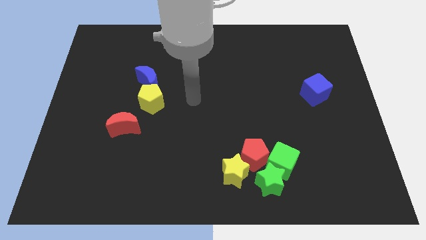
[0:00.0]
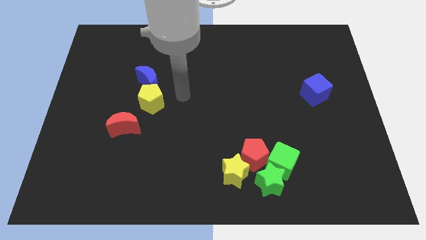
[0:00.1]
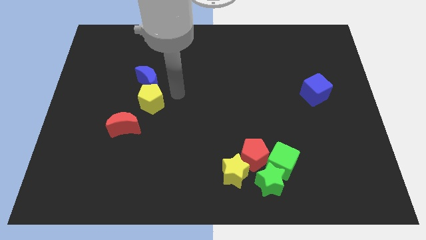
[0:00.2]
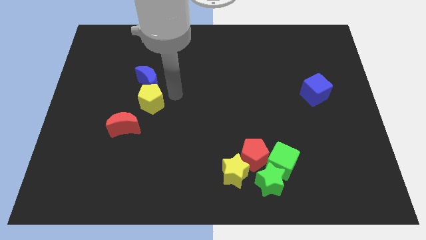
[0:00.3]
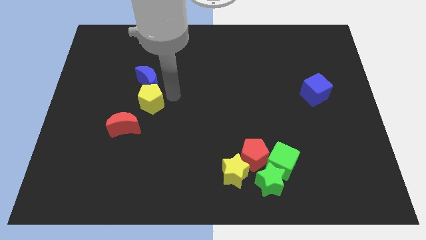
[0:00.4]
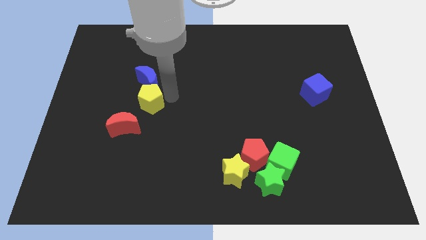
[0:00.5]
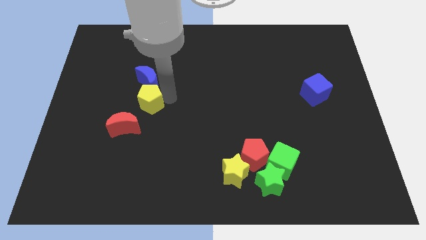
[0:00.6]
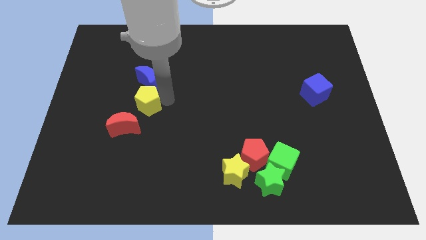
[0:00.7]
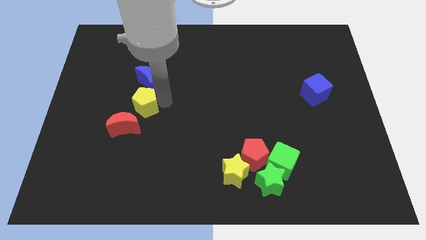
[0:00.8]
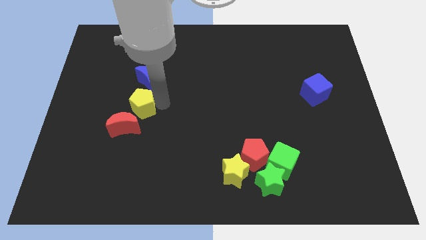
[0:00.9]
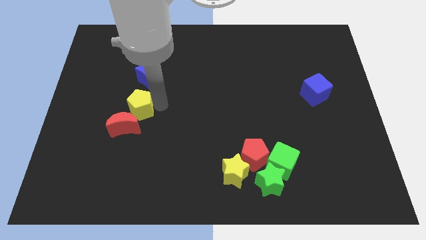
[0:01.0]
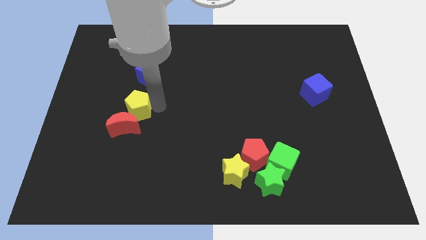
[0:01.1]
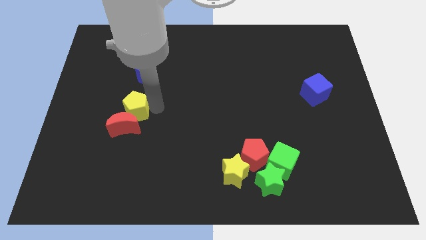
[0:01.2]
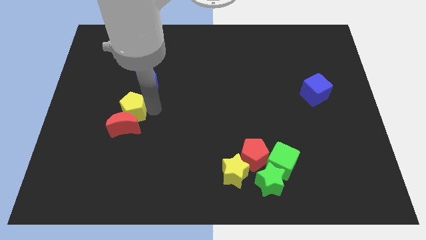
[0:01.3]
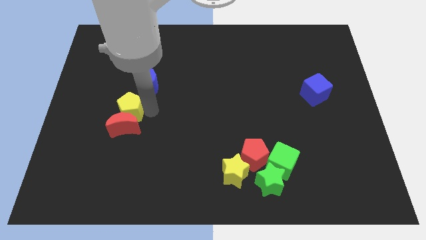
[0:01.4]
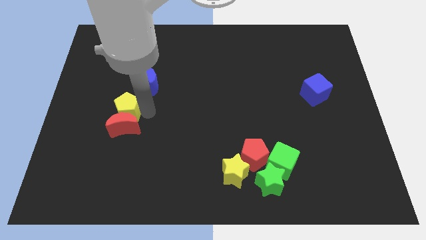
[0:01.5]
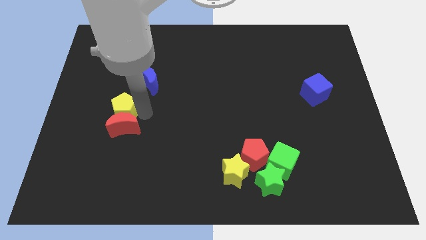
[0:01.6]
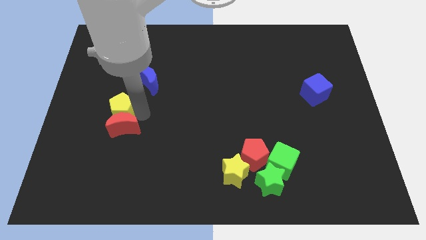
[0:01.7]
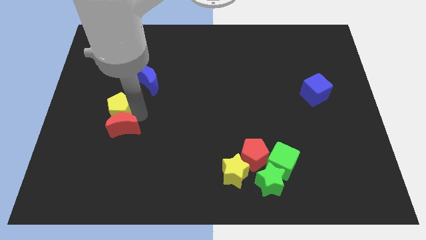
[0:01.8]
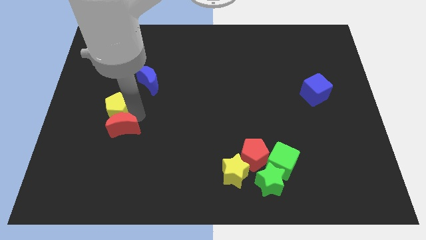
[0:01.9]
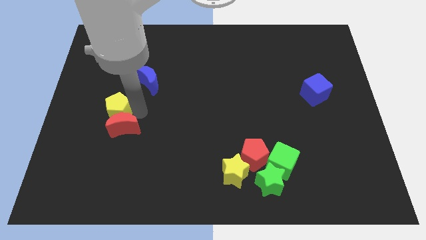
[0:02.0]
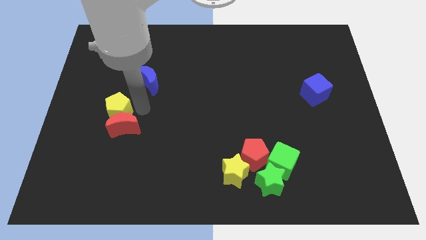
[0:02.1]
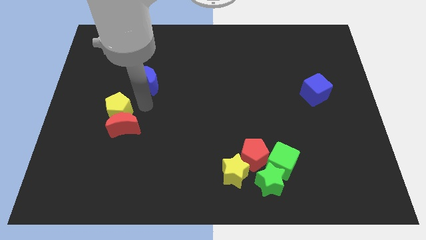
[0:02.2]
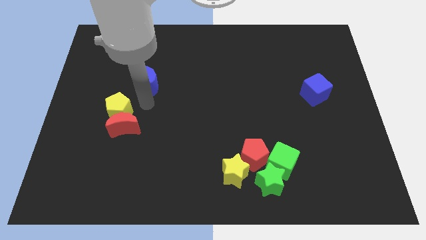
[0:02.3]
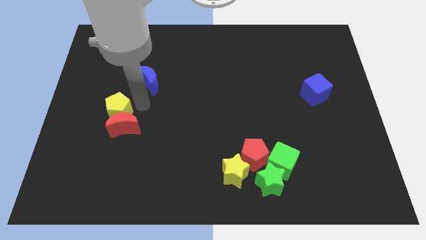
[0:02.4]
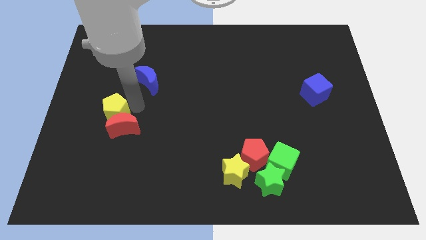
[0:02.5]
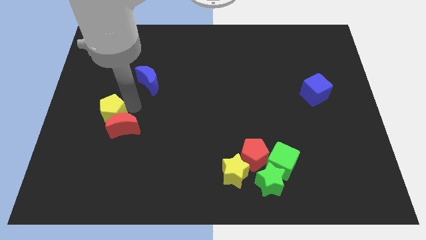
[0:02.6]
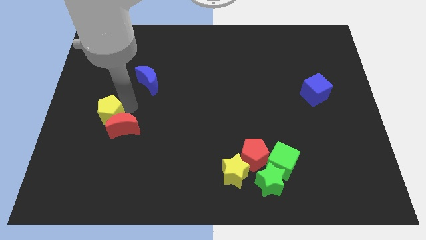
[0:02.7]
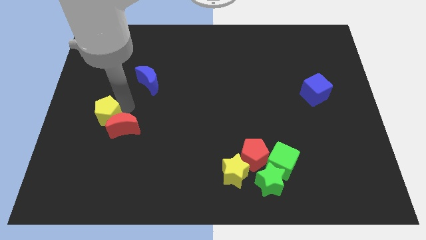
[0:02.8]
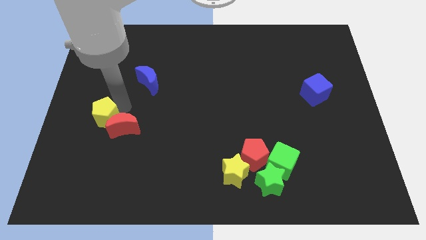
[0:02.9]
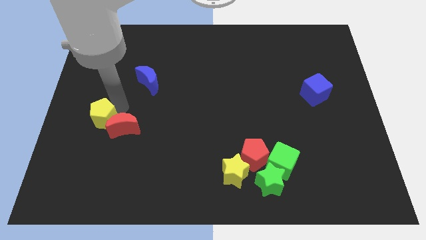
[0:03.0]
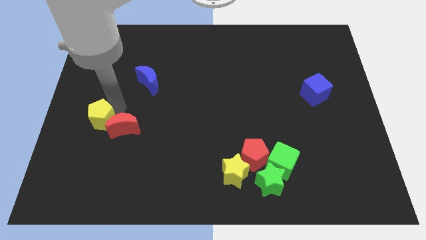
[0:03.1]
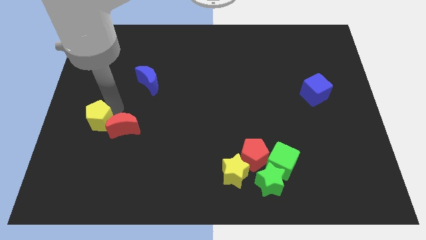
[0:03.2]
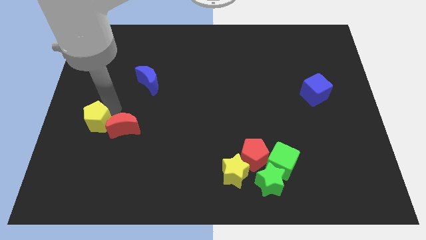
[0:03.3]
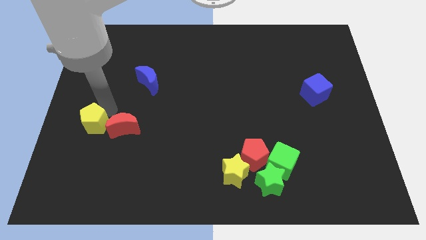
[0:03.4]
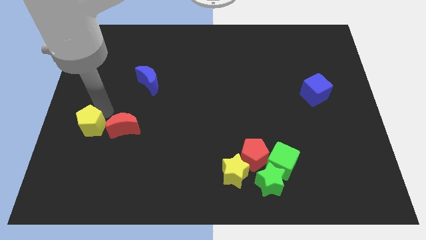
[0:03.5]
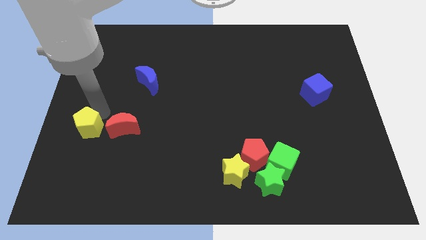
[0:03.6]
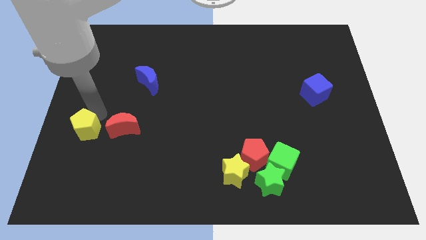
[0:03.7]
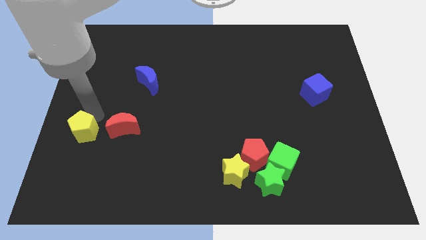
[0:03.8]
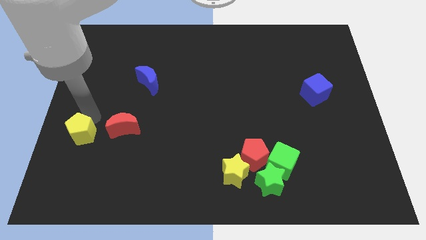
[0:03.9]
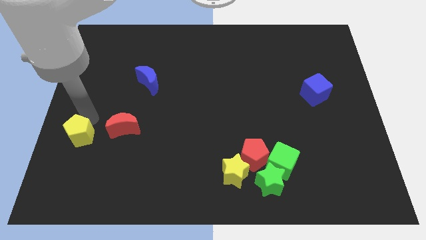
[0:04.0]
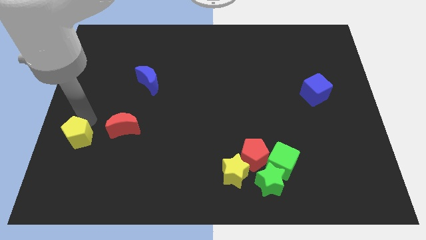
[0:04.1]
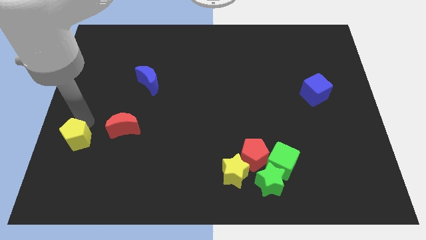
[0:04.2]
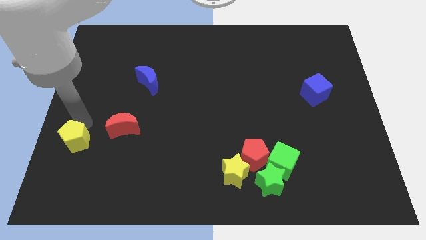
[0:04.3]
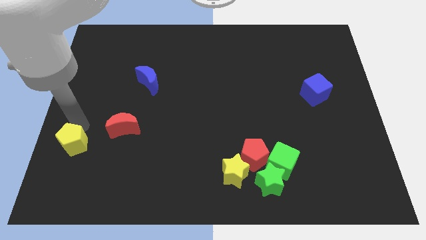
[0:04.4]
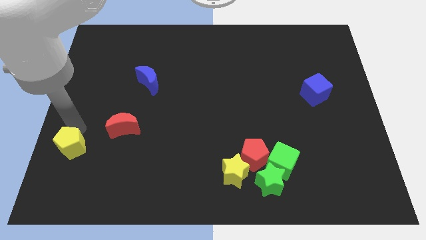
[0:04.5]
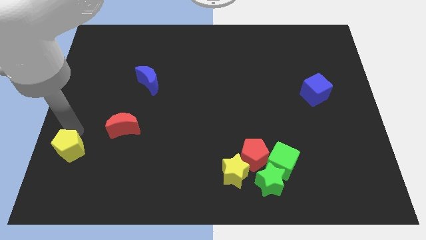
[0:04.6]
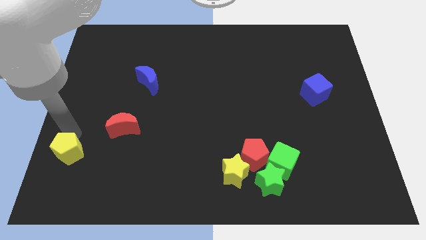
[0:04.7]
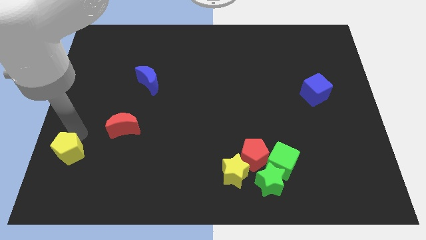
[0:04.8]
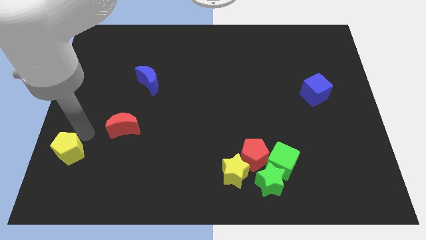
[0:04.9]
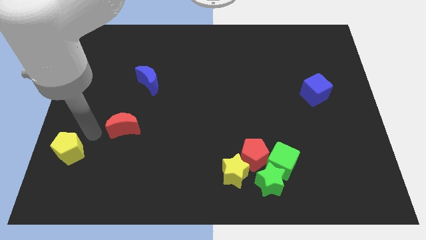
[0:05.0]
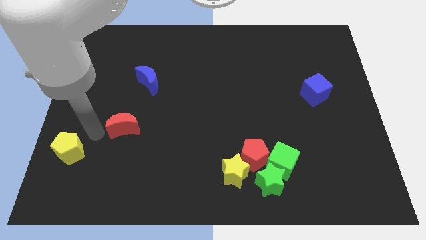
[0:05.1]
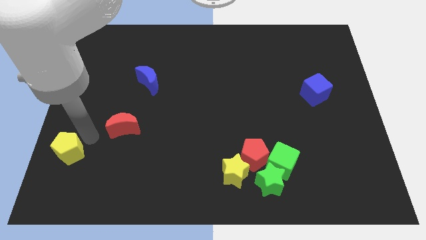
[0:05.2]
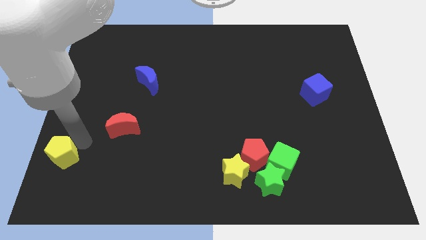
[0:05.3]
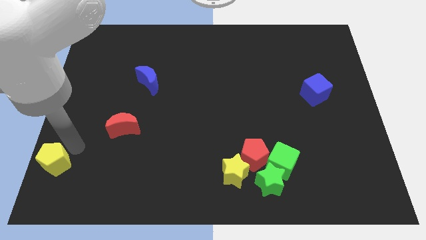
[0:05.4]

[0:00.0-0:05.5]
slide the yellow pentagon to the lower left corner

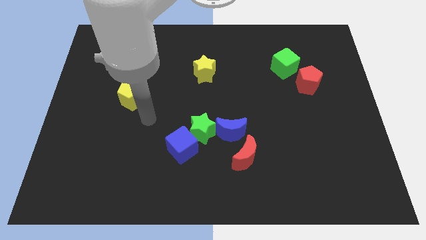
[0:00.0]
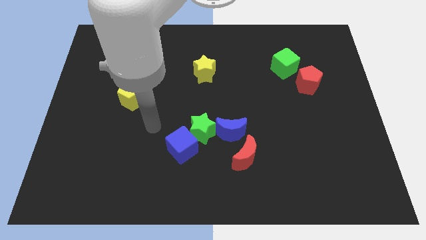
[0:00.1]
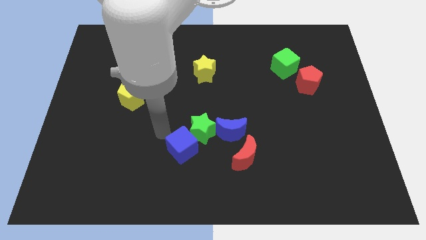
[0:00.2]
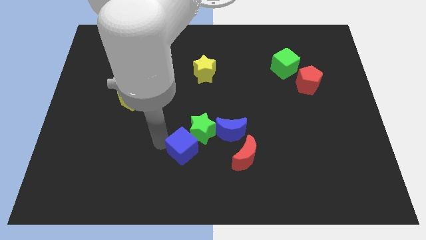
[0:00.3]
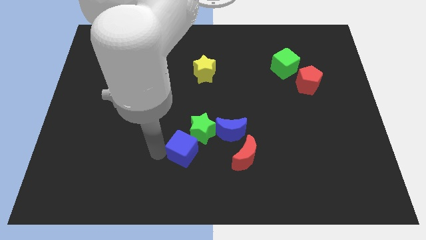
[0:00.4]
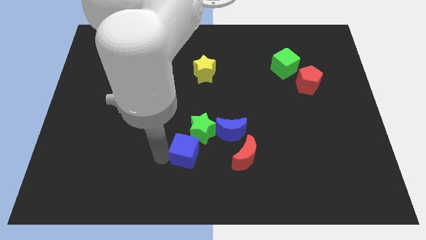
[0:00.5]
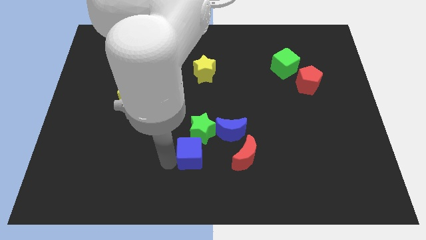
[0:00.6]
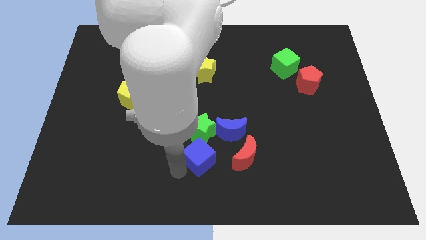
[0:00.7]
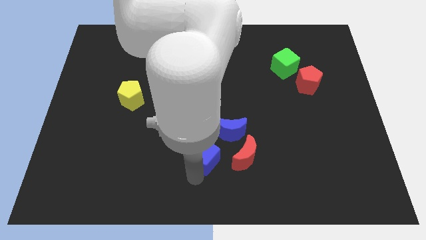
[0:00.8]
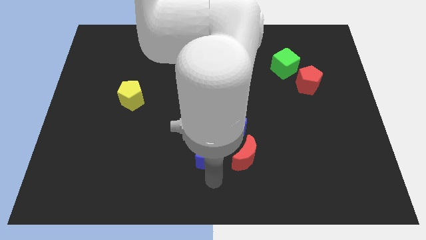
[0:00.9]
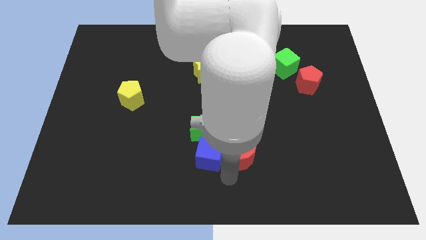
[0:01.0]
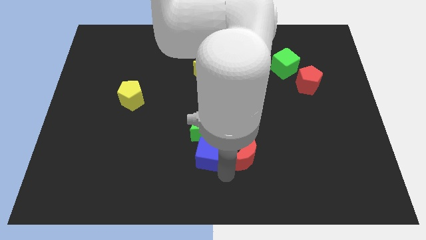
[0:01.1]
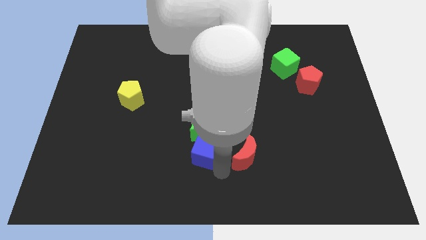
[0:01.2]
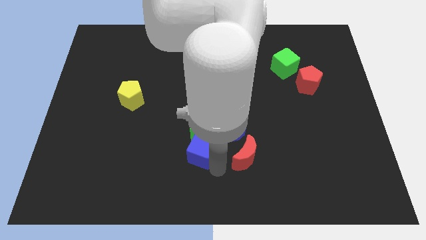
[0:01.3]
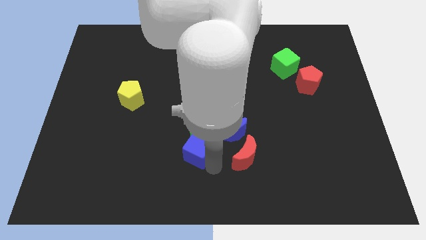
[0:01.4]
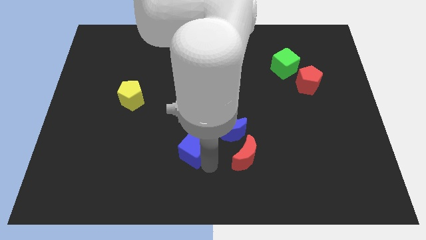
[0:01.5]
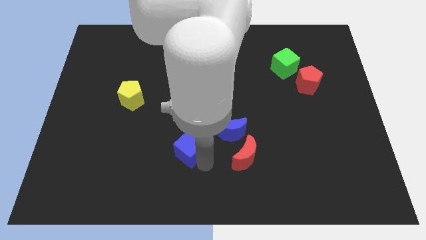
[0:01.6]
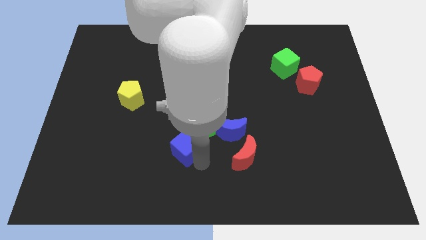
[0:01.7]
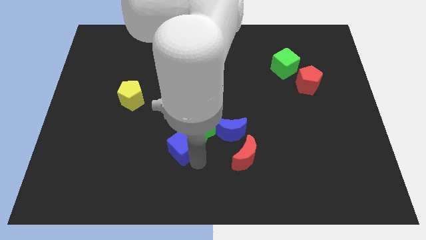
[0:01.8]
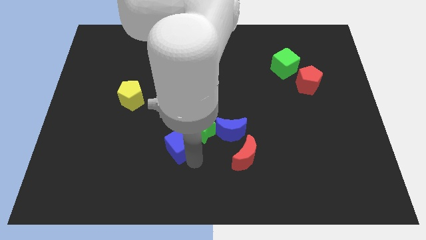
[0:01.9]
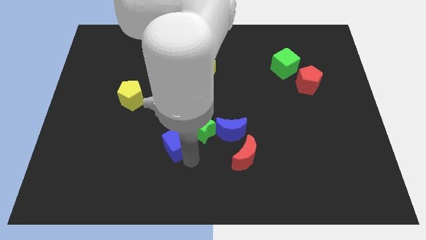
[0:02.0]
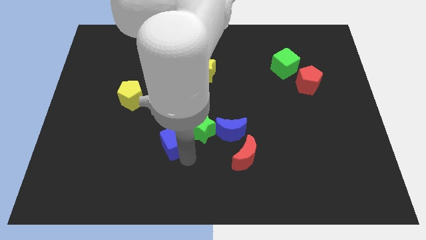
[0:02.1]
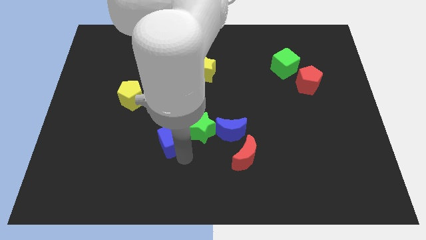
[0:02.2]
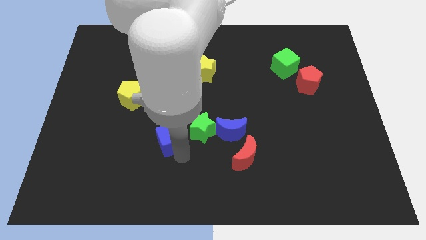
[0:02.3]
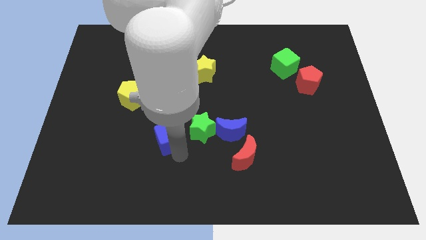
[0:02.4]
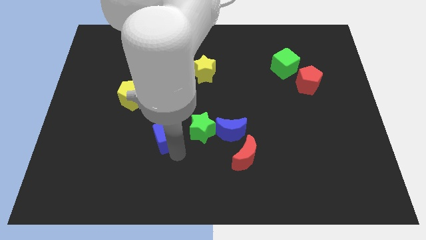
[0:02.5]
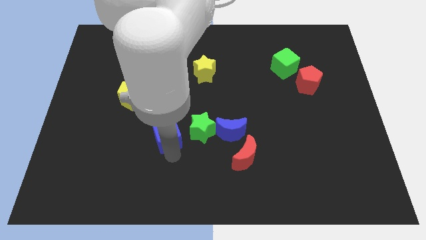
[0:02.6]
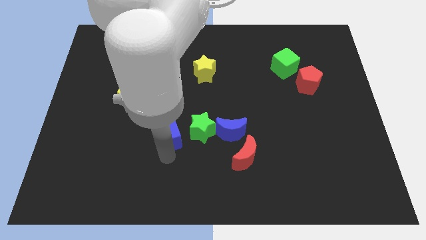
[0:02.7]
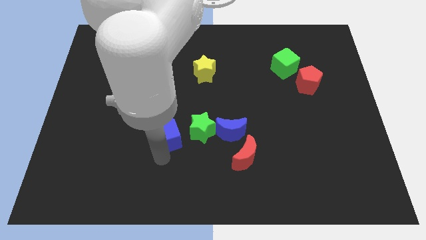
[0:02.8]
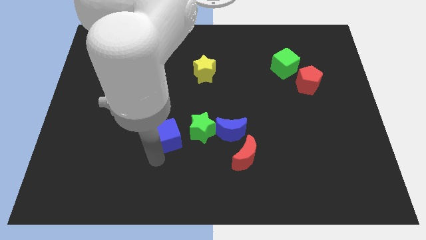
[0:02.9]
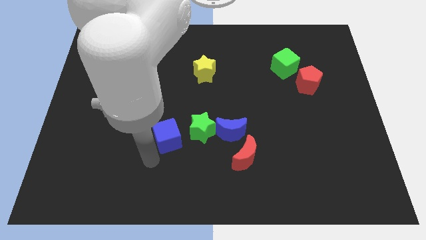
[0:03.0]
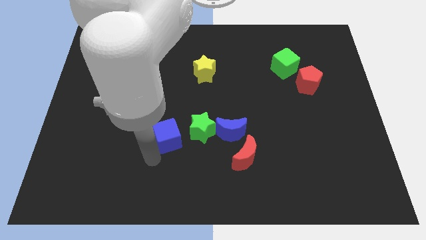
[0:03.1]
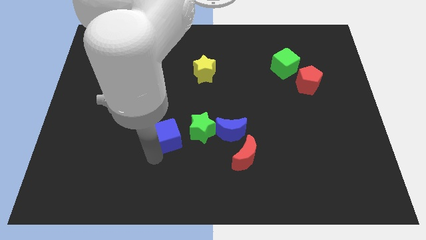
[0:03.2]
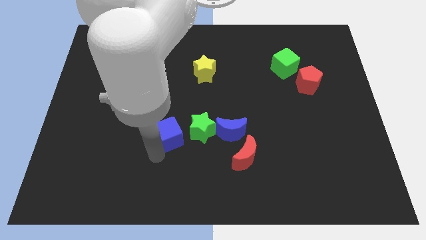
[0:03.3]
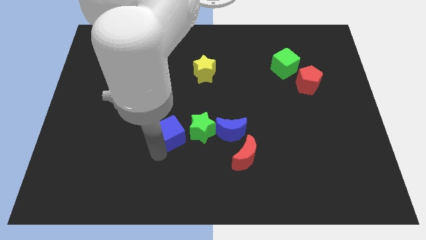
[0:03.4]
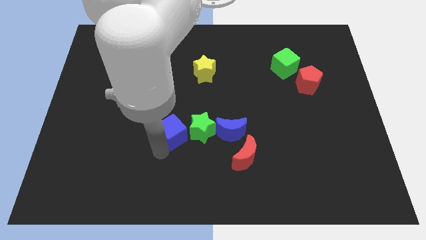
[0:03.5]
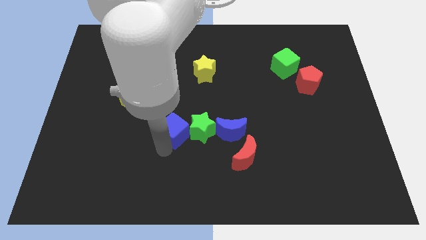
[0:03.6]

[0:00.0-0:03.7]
move the blue cube to the center
